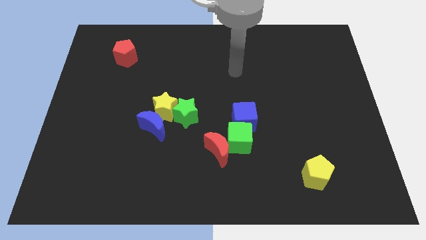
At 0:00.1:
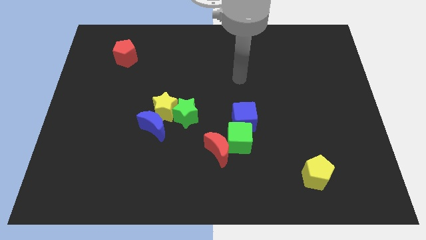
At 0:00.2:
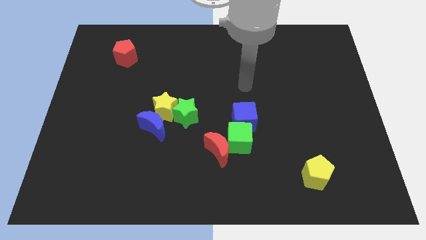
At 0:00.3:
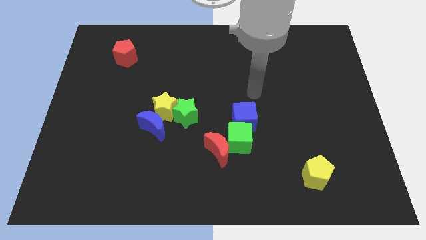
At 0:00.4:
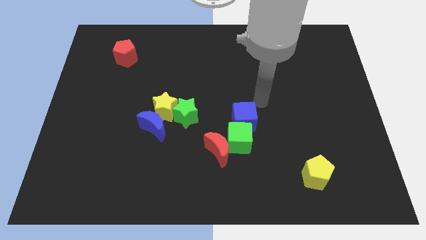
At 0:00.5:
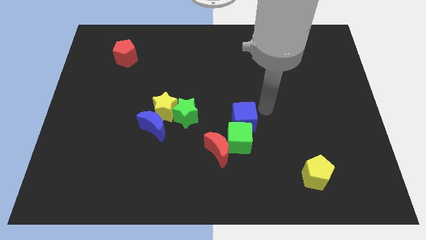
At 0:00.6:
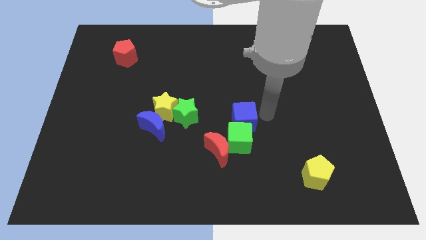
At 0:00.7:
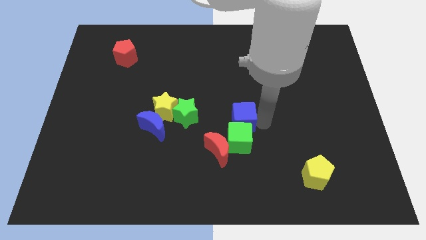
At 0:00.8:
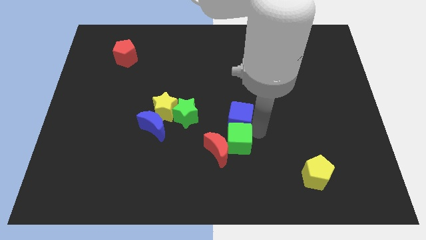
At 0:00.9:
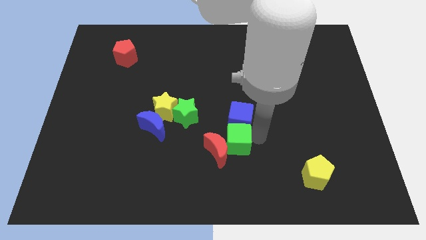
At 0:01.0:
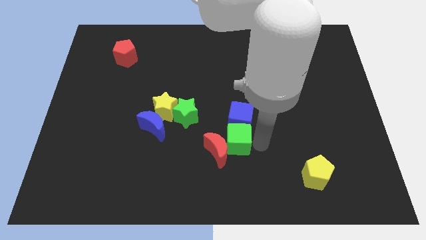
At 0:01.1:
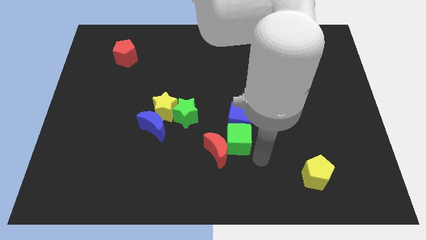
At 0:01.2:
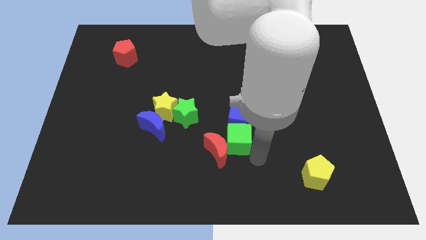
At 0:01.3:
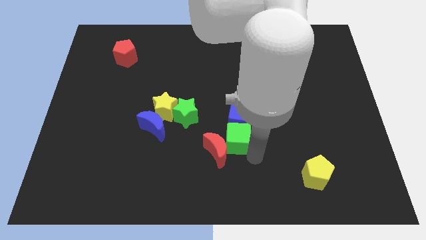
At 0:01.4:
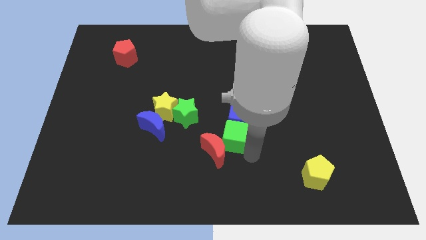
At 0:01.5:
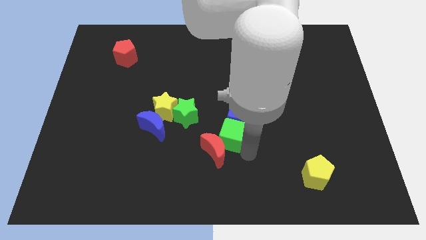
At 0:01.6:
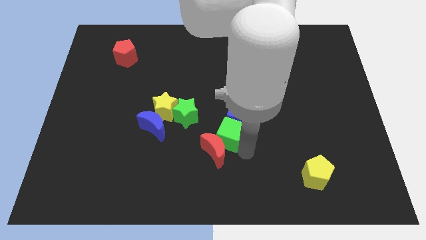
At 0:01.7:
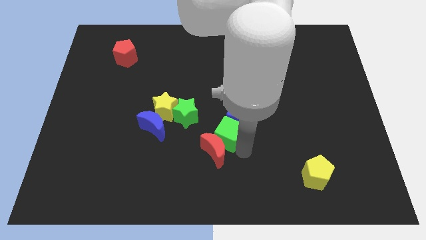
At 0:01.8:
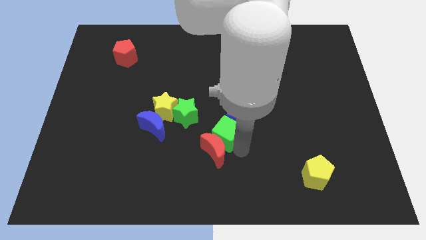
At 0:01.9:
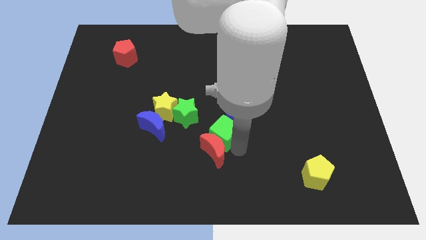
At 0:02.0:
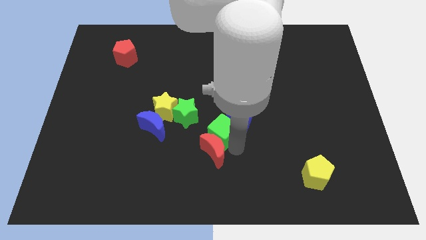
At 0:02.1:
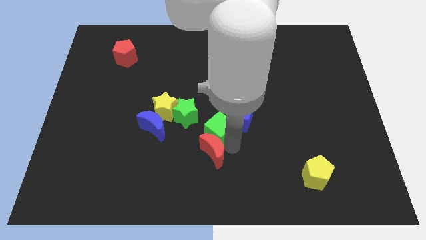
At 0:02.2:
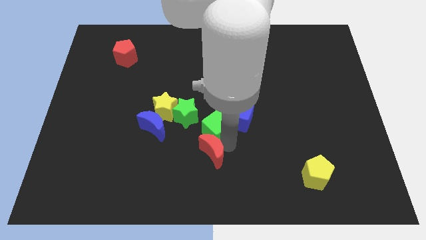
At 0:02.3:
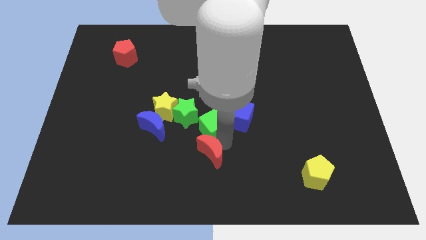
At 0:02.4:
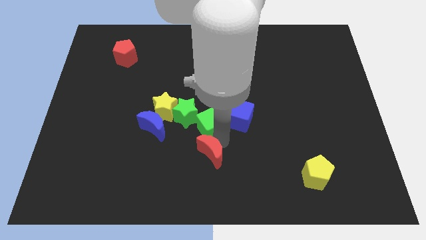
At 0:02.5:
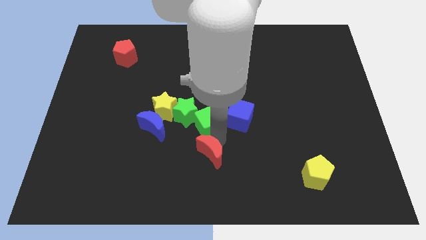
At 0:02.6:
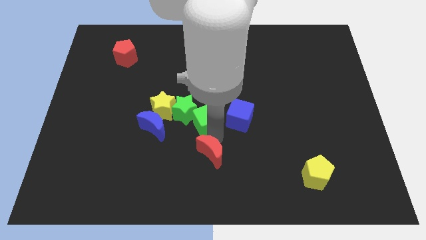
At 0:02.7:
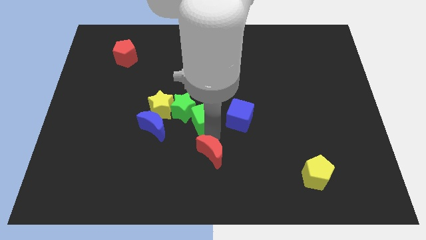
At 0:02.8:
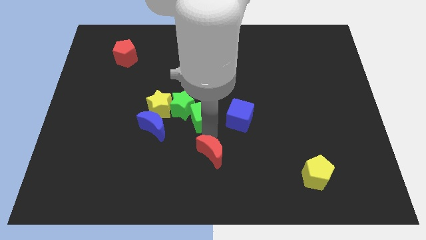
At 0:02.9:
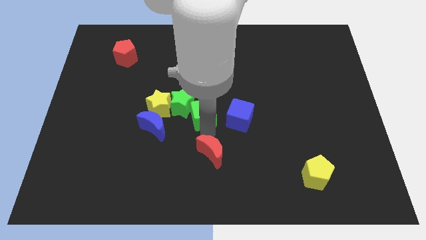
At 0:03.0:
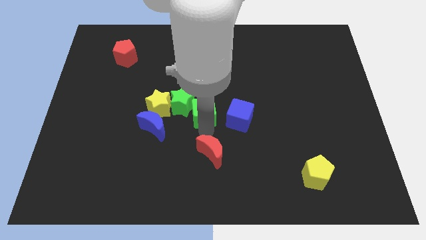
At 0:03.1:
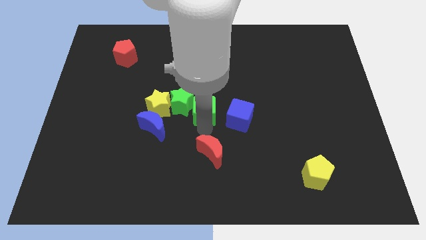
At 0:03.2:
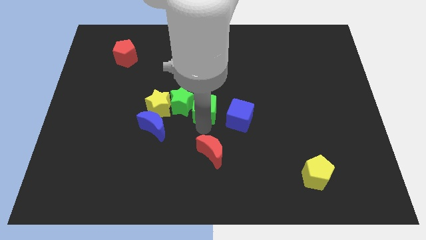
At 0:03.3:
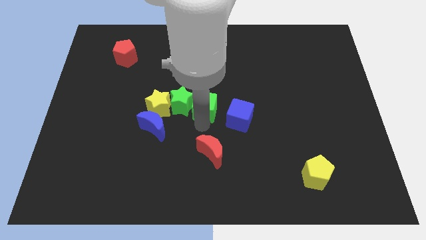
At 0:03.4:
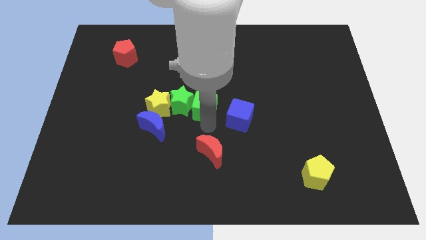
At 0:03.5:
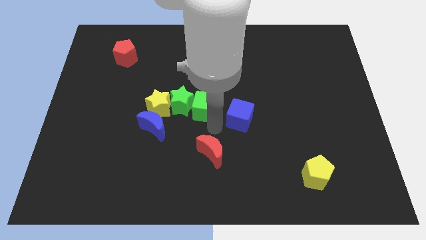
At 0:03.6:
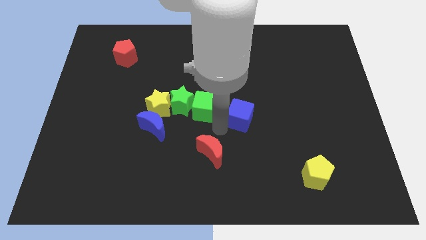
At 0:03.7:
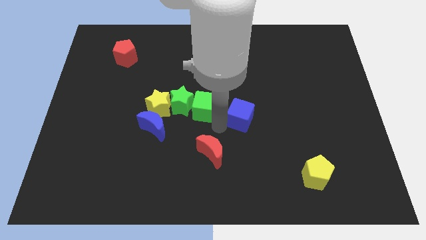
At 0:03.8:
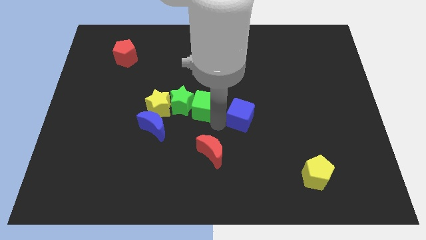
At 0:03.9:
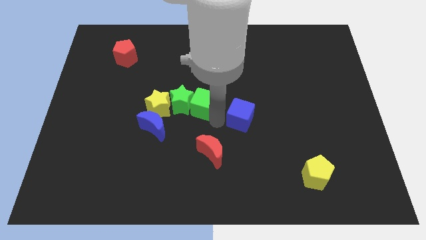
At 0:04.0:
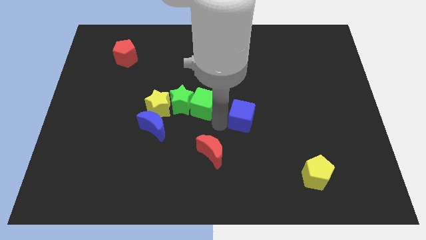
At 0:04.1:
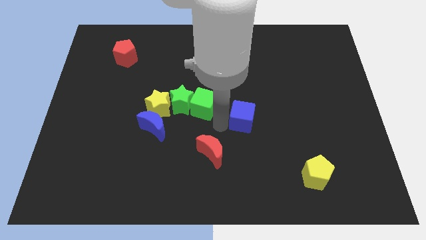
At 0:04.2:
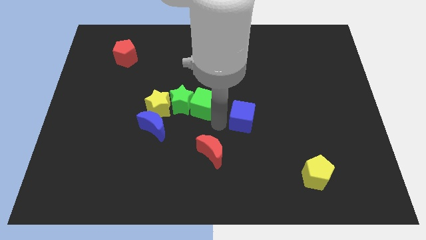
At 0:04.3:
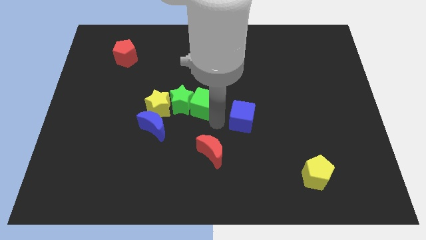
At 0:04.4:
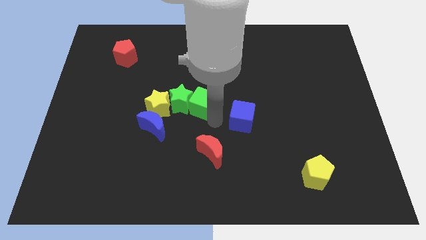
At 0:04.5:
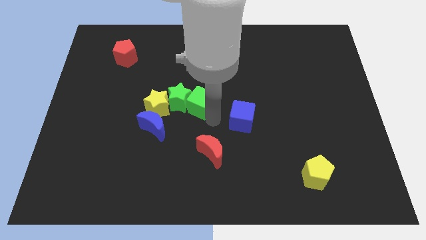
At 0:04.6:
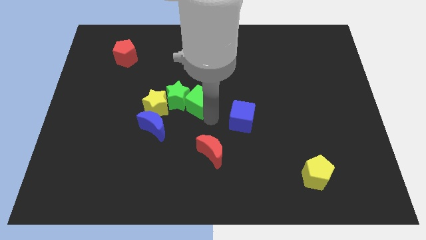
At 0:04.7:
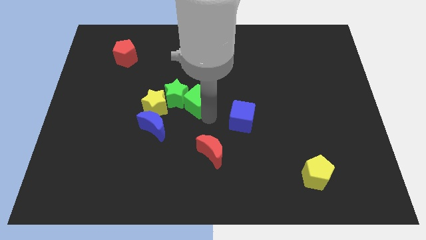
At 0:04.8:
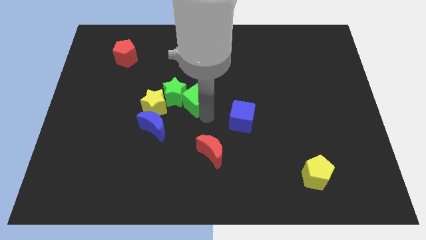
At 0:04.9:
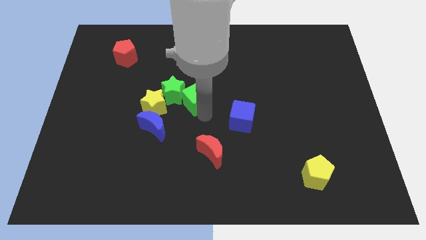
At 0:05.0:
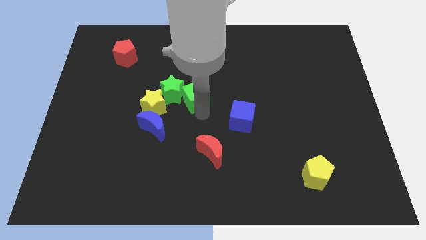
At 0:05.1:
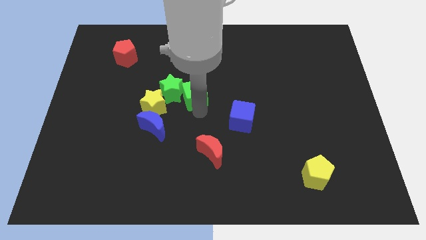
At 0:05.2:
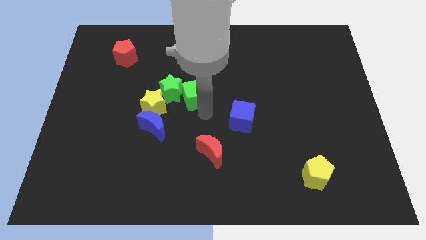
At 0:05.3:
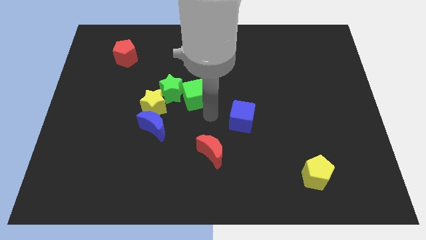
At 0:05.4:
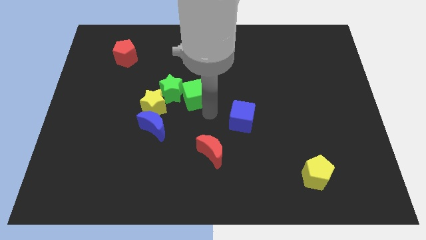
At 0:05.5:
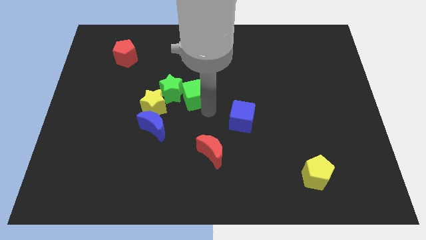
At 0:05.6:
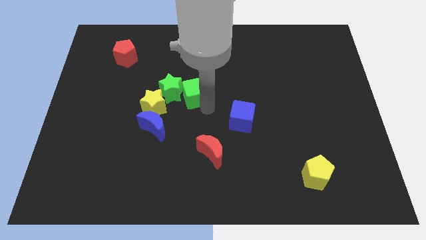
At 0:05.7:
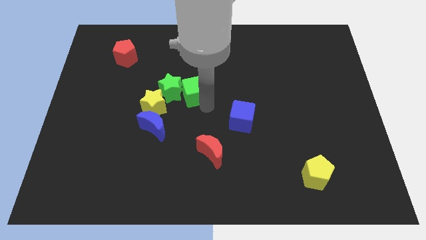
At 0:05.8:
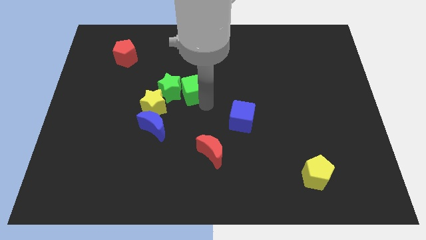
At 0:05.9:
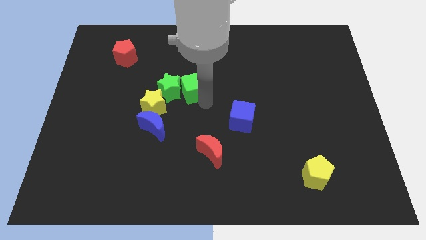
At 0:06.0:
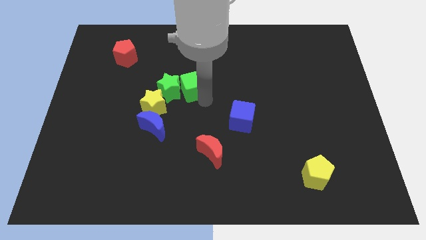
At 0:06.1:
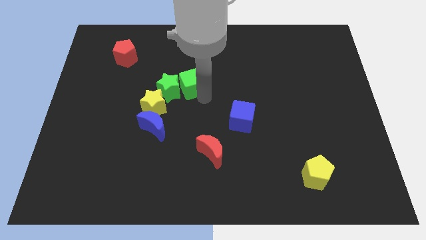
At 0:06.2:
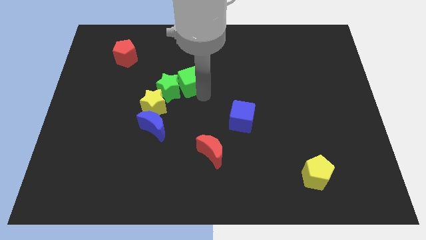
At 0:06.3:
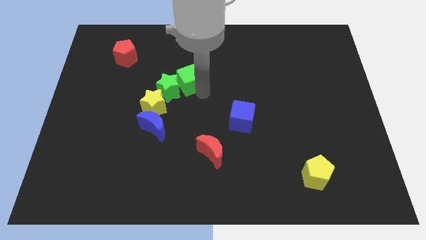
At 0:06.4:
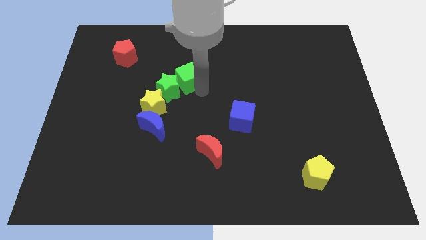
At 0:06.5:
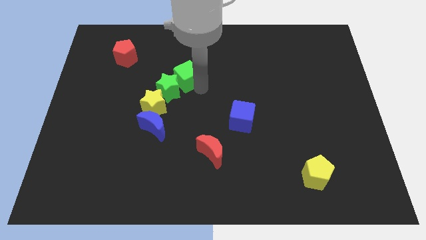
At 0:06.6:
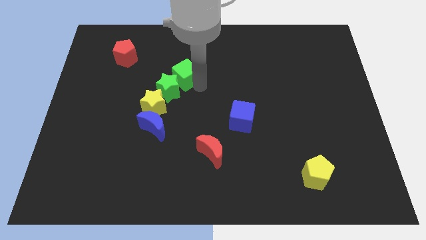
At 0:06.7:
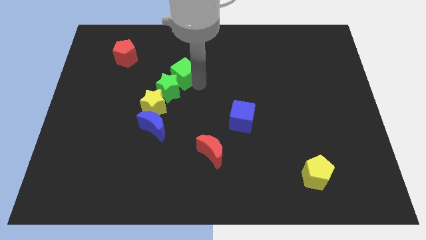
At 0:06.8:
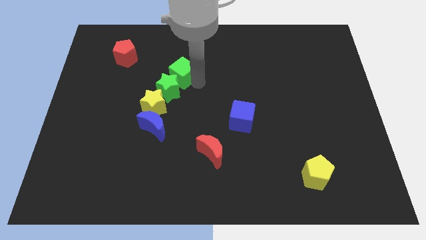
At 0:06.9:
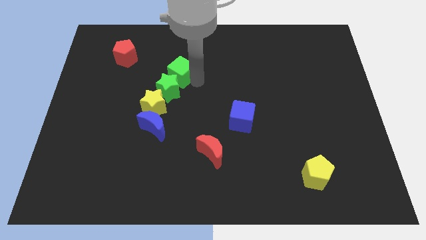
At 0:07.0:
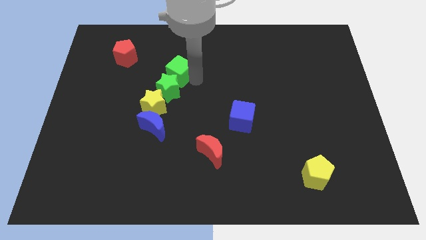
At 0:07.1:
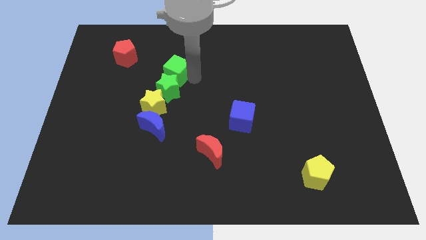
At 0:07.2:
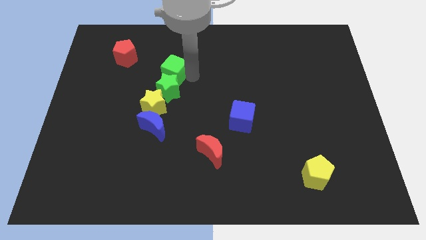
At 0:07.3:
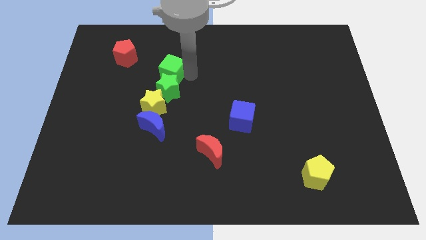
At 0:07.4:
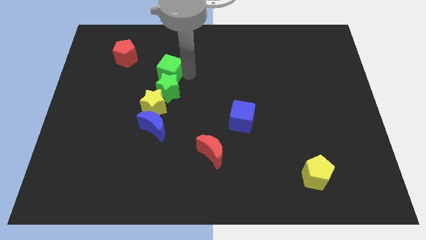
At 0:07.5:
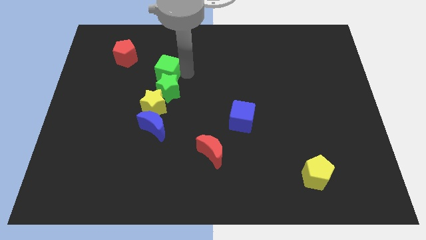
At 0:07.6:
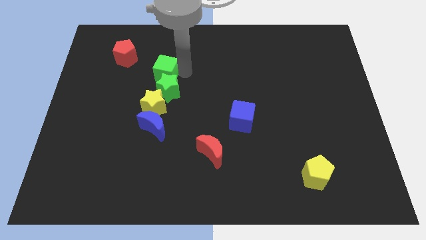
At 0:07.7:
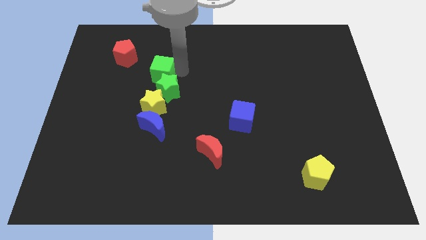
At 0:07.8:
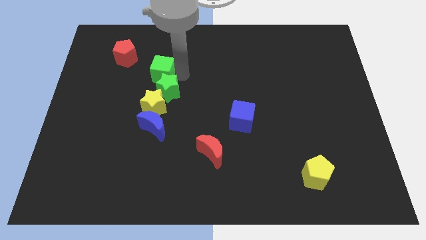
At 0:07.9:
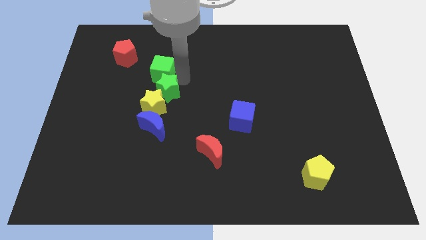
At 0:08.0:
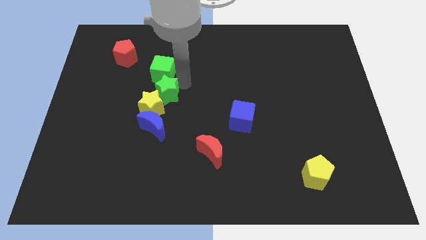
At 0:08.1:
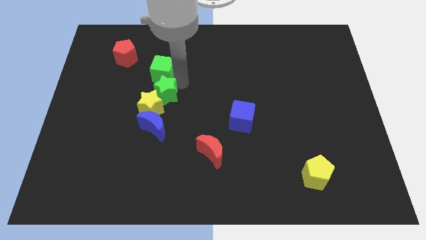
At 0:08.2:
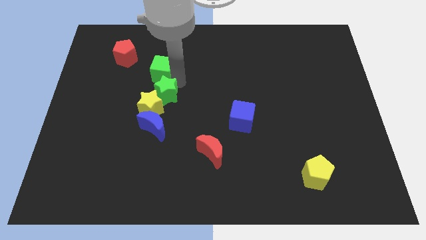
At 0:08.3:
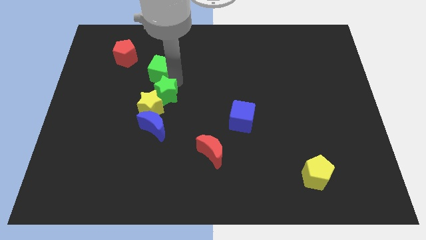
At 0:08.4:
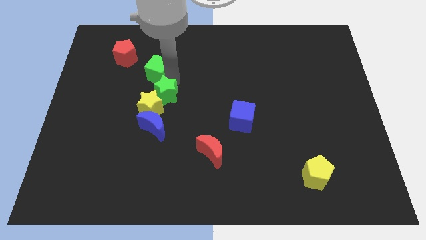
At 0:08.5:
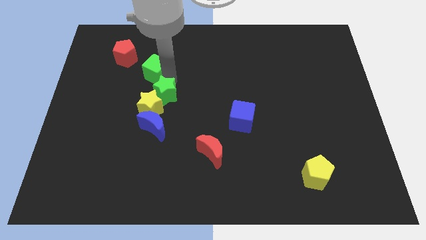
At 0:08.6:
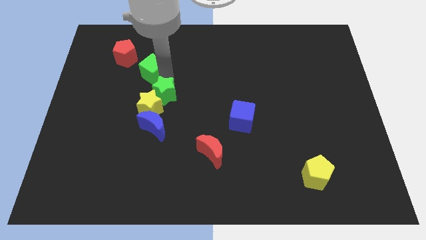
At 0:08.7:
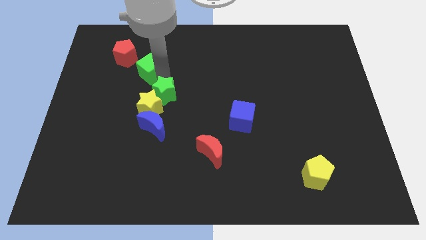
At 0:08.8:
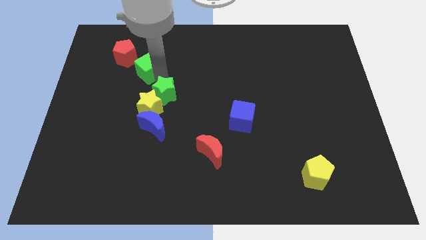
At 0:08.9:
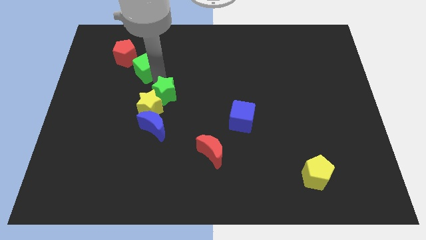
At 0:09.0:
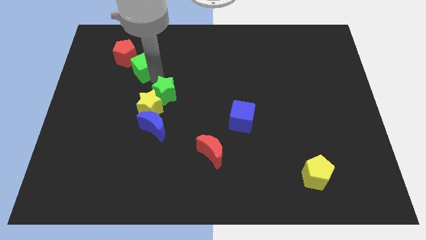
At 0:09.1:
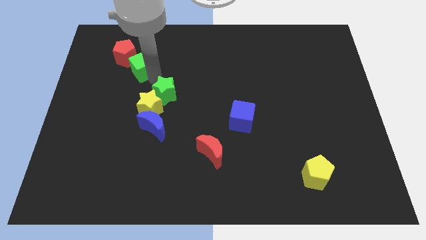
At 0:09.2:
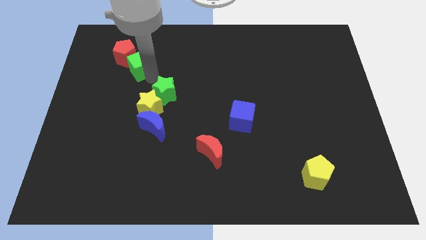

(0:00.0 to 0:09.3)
push the green cube close to the red pentagon
